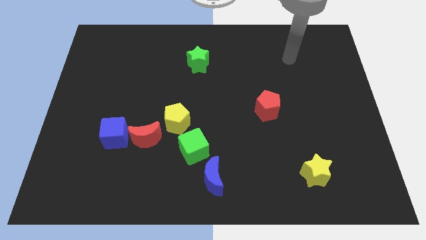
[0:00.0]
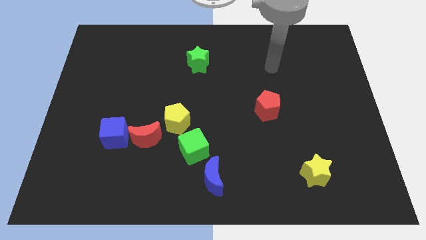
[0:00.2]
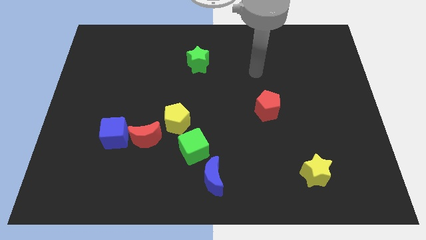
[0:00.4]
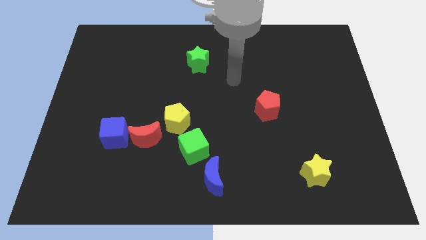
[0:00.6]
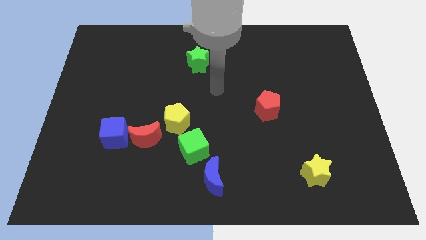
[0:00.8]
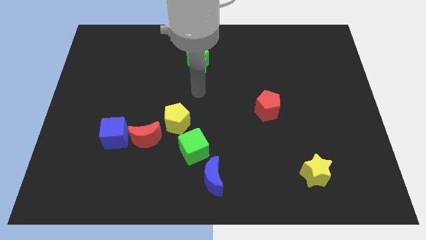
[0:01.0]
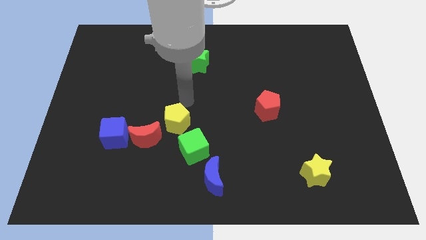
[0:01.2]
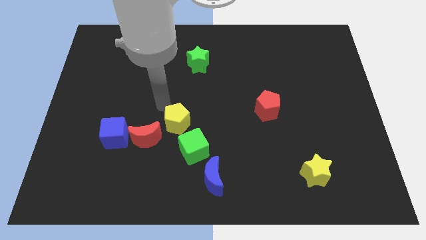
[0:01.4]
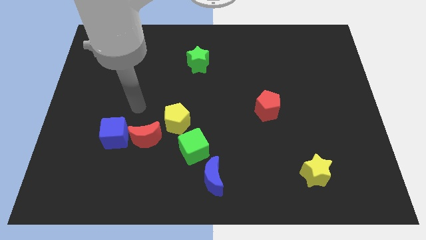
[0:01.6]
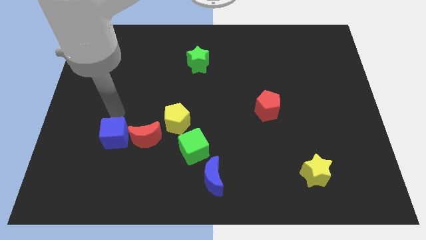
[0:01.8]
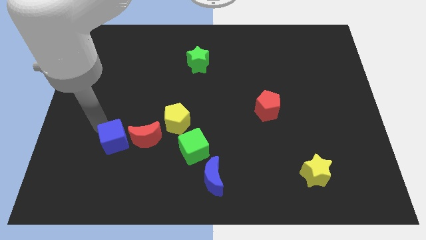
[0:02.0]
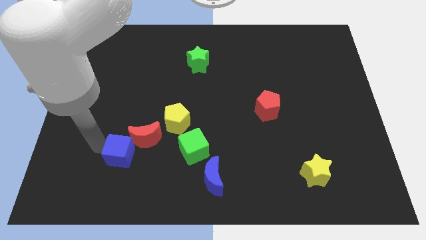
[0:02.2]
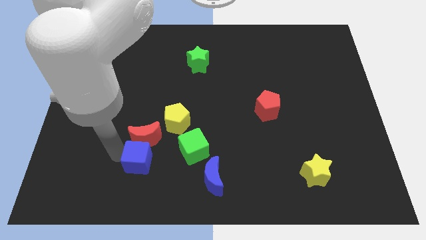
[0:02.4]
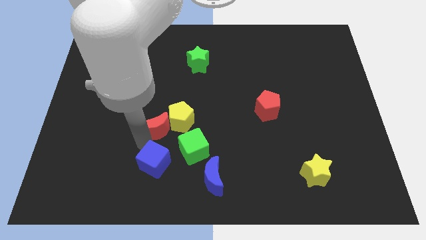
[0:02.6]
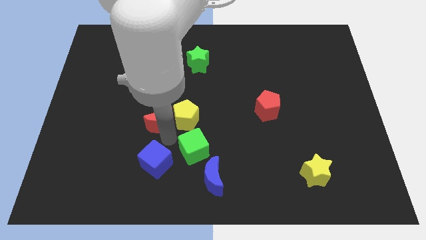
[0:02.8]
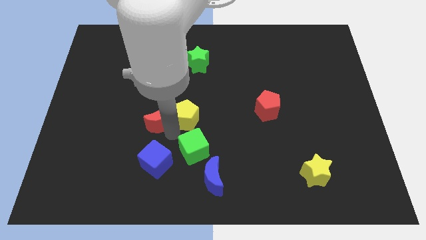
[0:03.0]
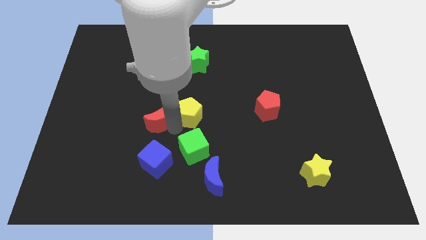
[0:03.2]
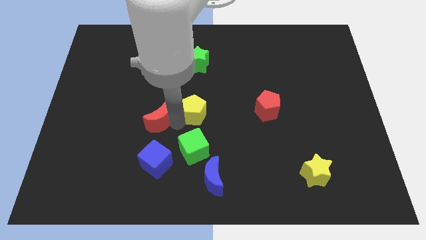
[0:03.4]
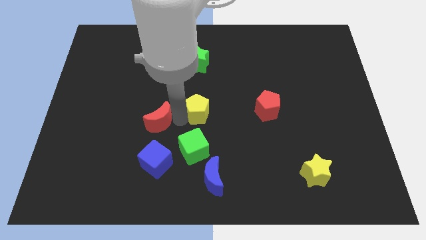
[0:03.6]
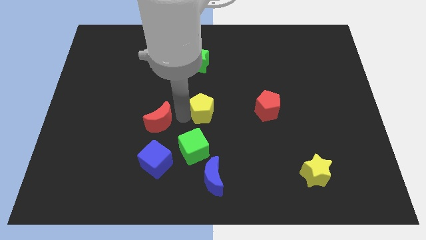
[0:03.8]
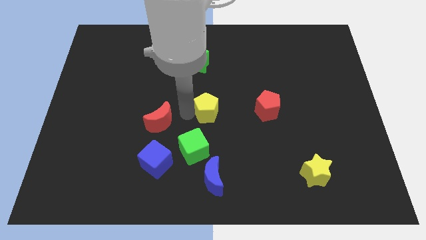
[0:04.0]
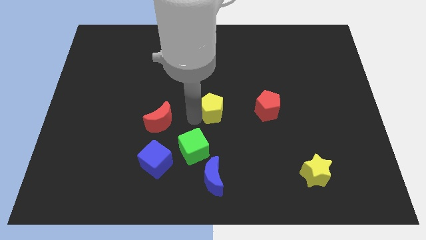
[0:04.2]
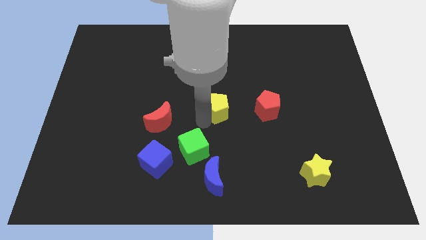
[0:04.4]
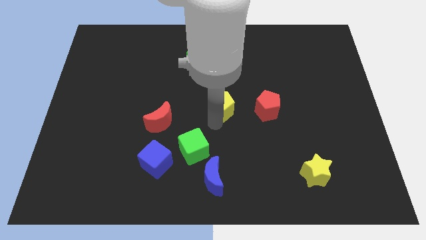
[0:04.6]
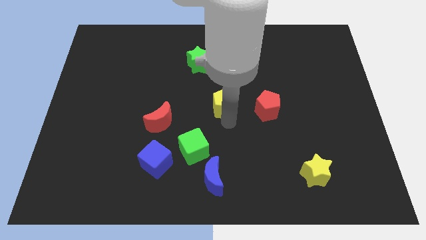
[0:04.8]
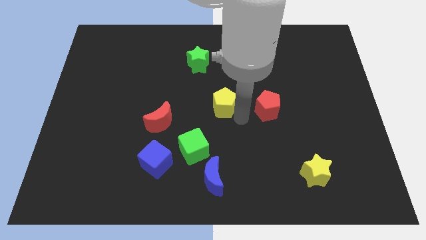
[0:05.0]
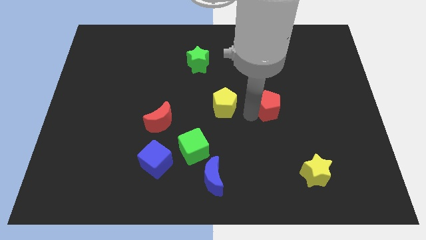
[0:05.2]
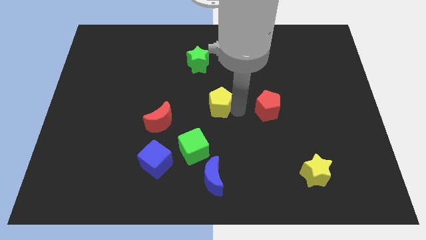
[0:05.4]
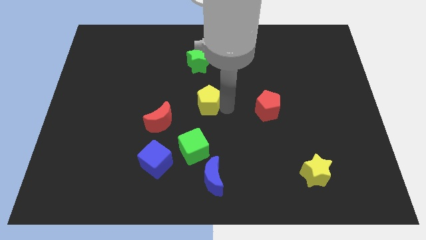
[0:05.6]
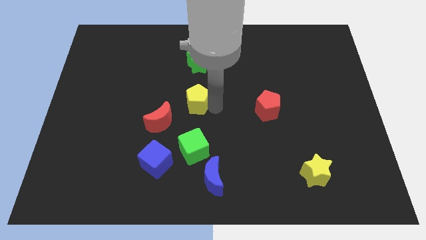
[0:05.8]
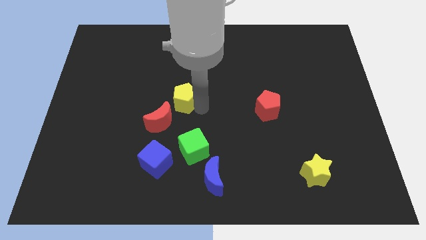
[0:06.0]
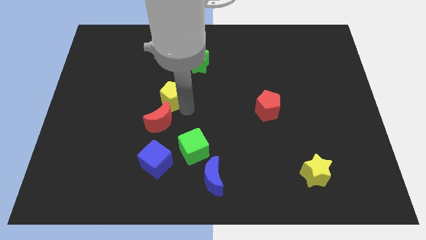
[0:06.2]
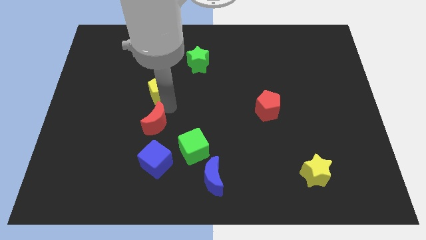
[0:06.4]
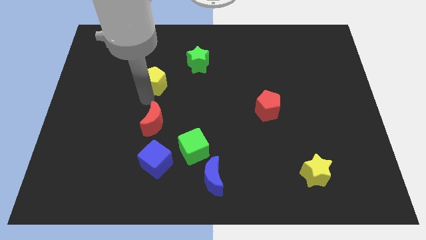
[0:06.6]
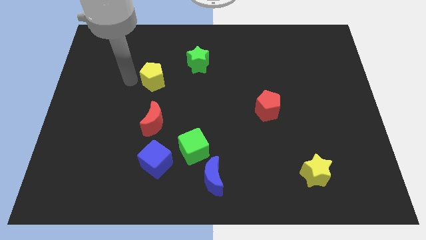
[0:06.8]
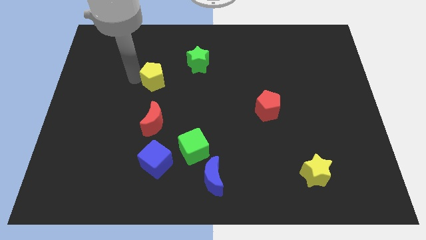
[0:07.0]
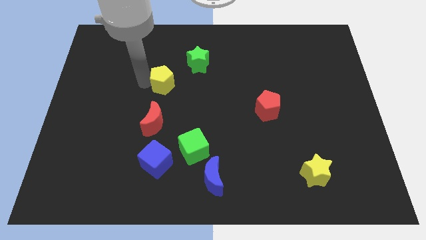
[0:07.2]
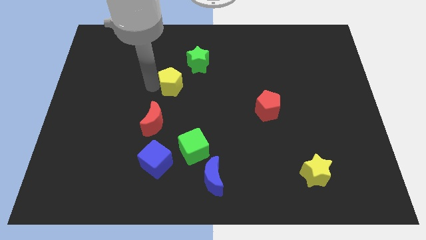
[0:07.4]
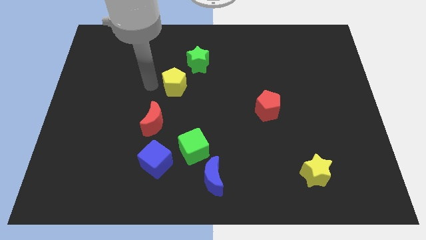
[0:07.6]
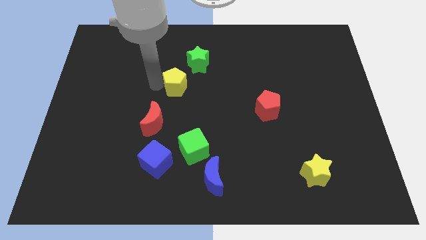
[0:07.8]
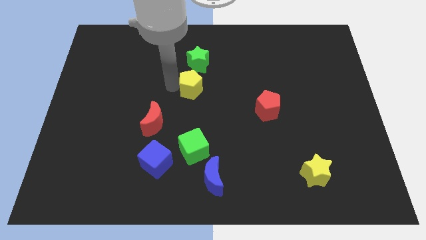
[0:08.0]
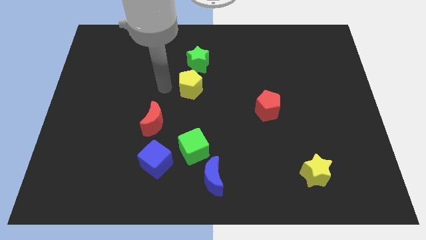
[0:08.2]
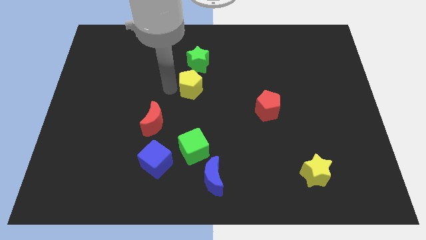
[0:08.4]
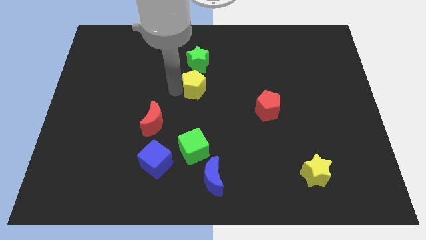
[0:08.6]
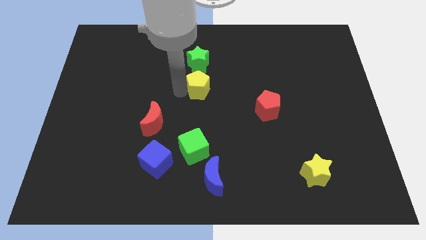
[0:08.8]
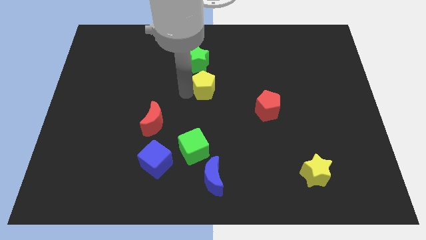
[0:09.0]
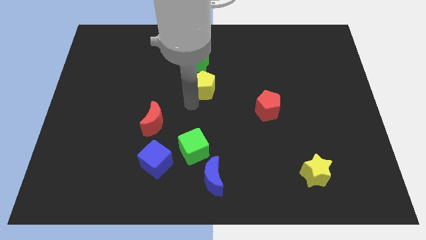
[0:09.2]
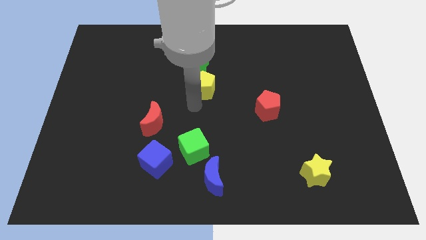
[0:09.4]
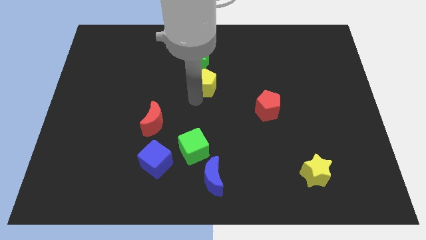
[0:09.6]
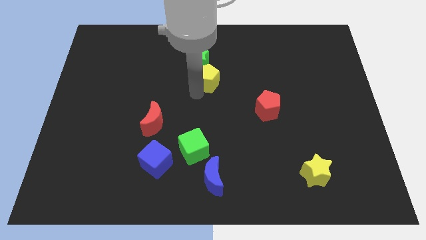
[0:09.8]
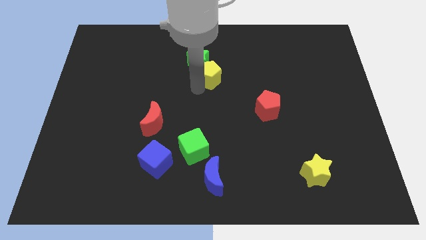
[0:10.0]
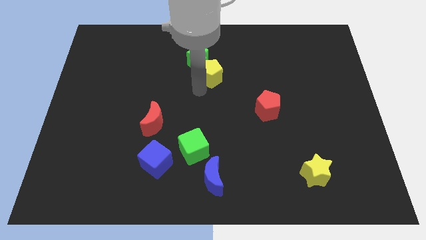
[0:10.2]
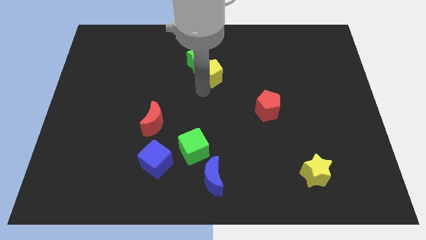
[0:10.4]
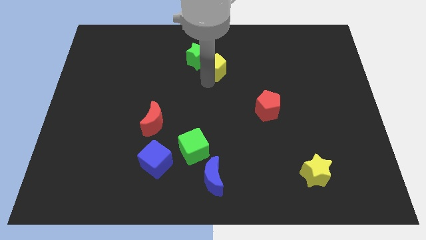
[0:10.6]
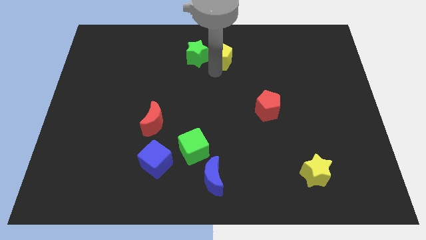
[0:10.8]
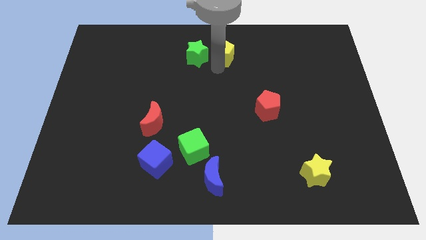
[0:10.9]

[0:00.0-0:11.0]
slide the yellow pentagon to the top

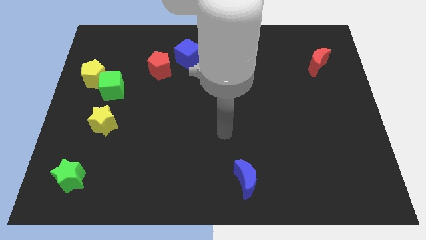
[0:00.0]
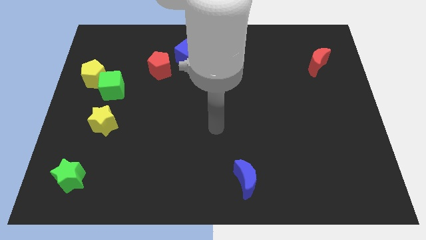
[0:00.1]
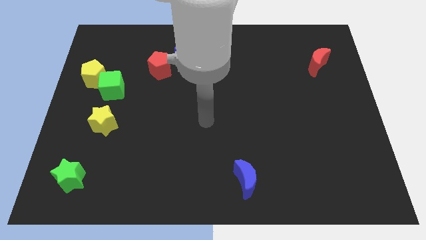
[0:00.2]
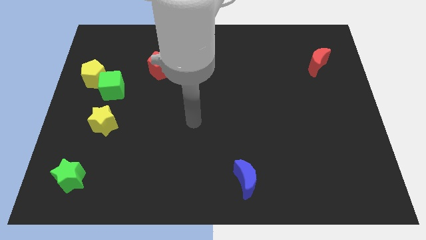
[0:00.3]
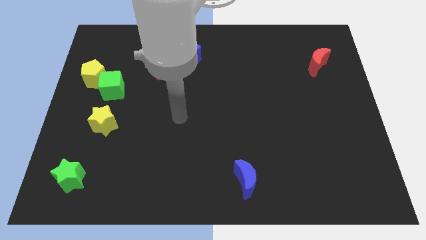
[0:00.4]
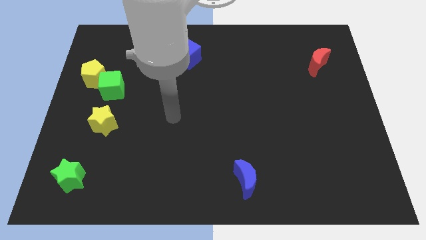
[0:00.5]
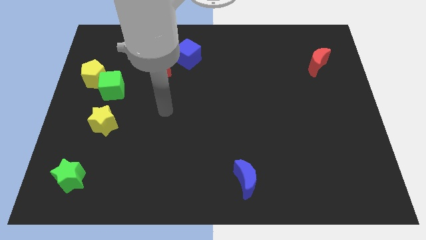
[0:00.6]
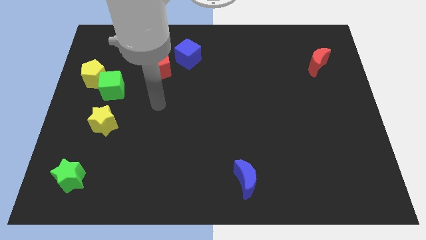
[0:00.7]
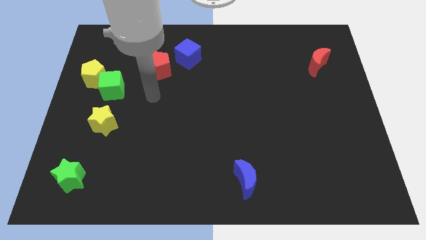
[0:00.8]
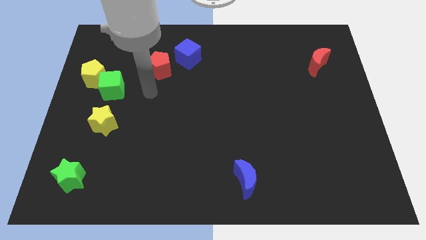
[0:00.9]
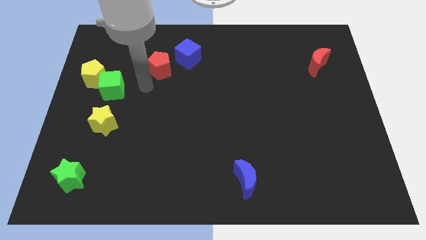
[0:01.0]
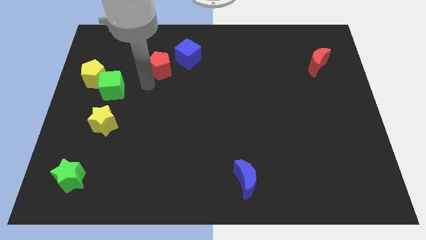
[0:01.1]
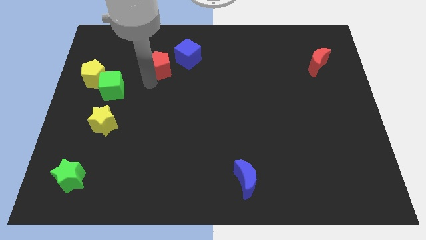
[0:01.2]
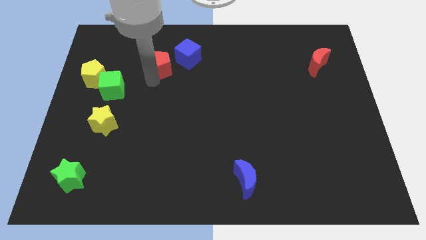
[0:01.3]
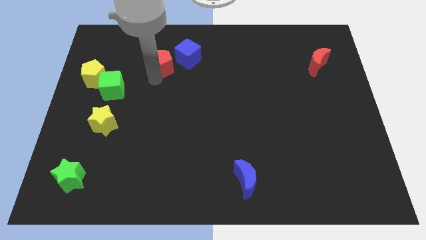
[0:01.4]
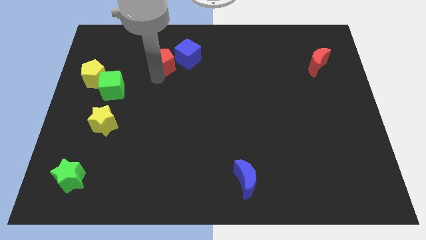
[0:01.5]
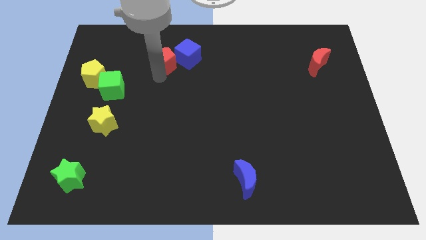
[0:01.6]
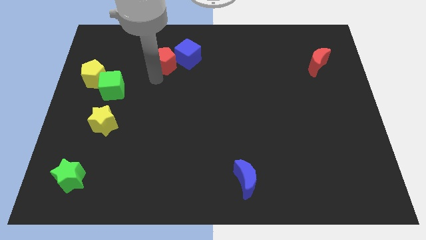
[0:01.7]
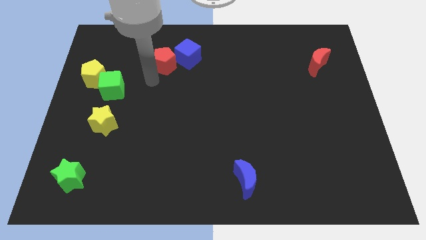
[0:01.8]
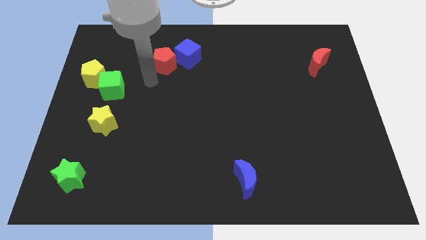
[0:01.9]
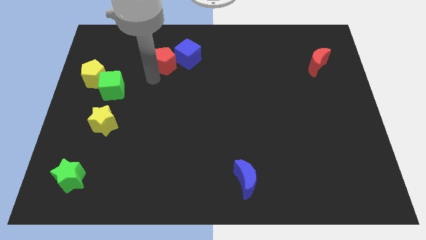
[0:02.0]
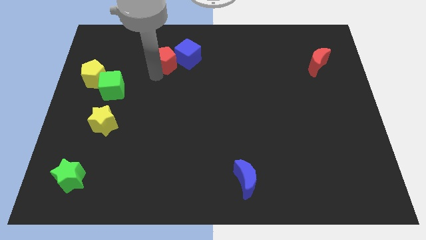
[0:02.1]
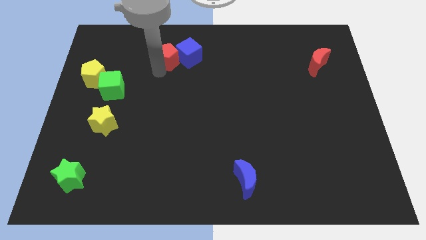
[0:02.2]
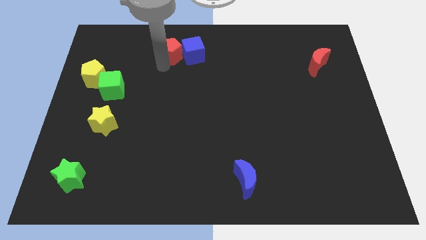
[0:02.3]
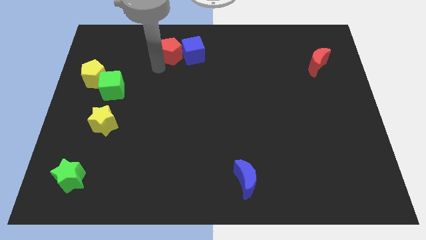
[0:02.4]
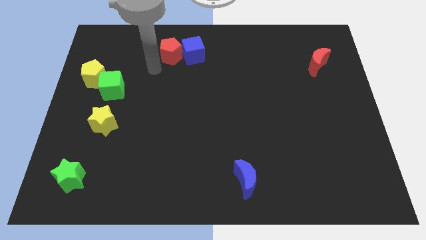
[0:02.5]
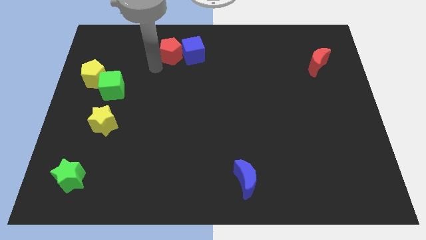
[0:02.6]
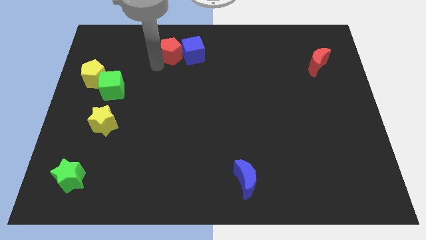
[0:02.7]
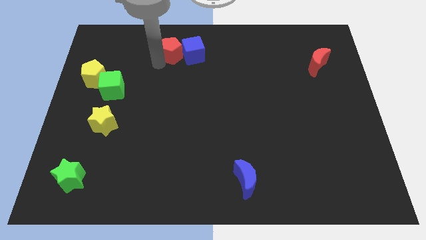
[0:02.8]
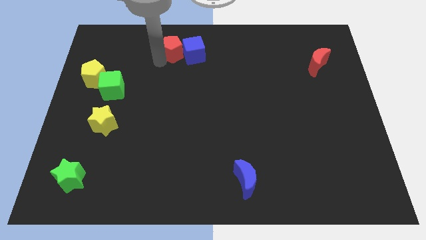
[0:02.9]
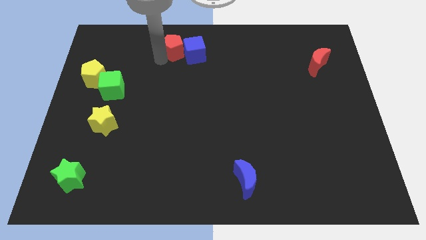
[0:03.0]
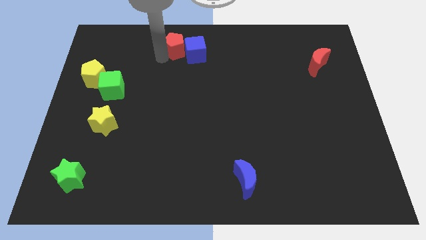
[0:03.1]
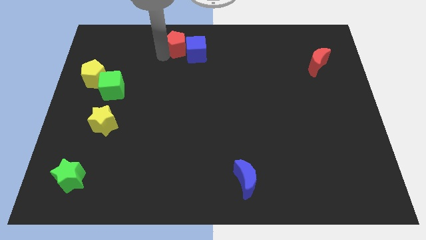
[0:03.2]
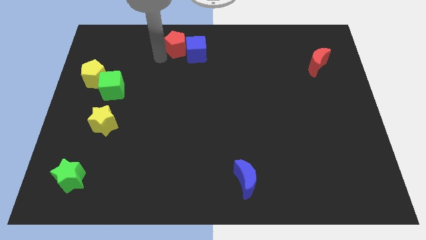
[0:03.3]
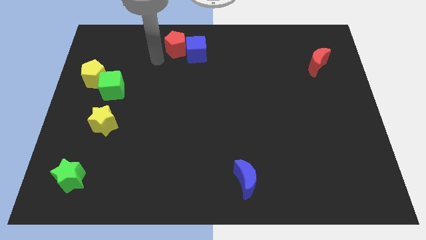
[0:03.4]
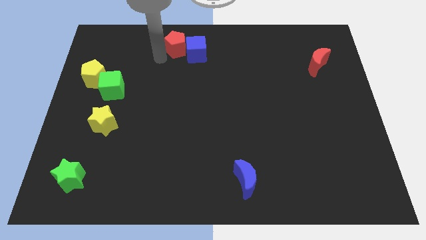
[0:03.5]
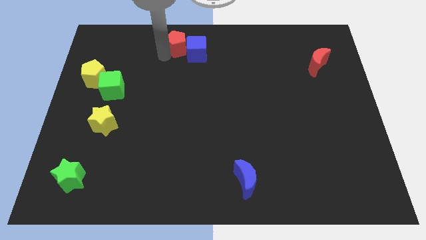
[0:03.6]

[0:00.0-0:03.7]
push the red pentagon to the top side
